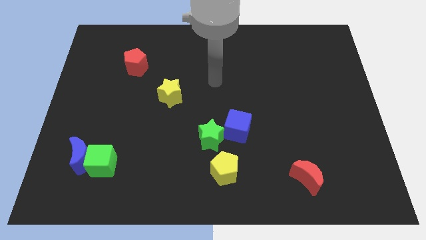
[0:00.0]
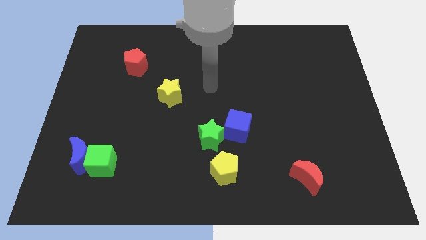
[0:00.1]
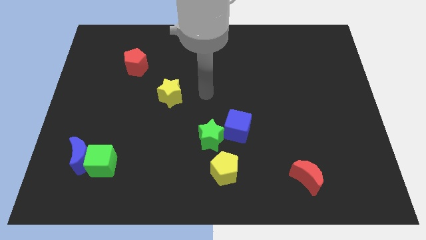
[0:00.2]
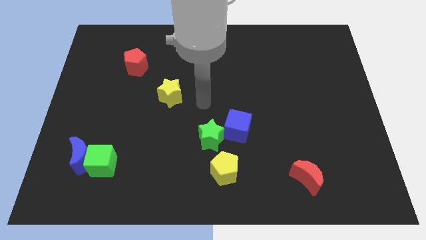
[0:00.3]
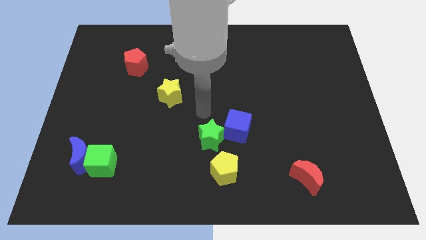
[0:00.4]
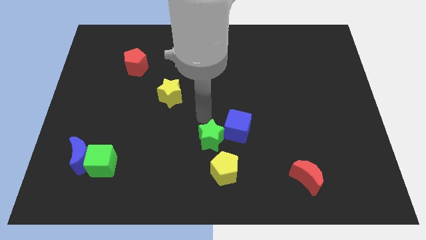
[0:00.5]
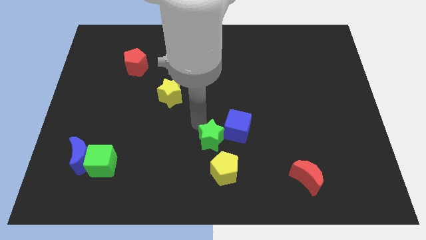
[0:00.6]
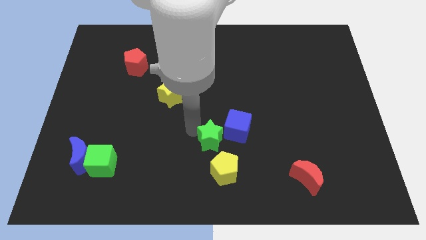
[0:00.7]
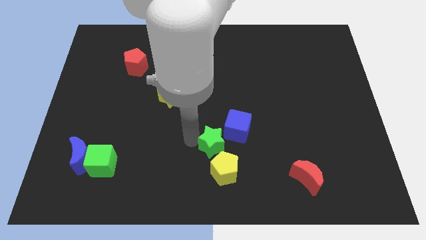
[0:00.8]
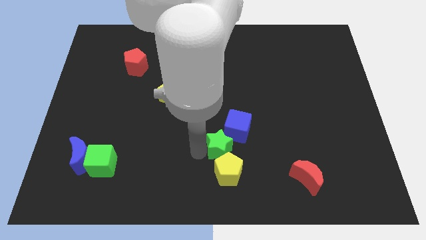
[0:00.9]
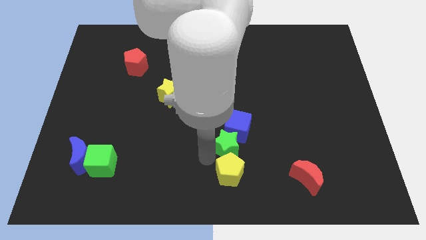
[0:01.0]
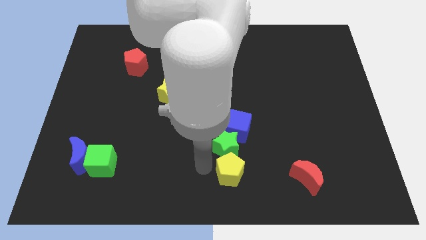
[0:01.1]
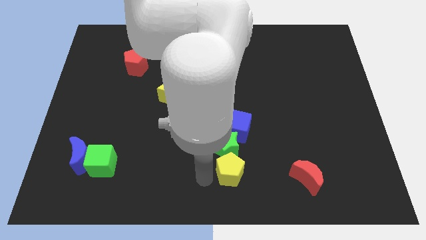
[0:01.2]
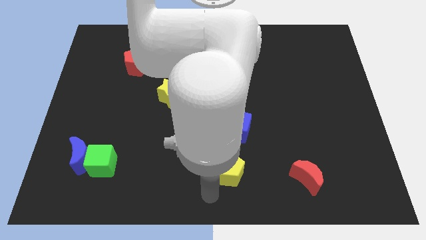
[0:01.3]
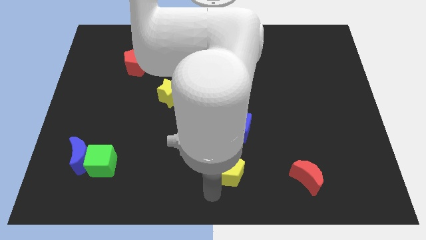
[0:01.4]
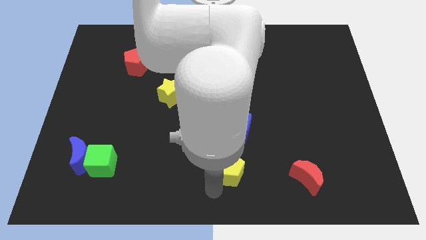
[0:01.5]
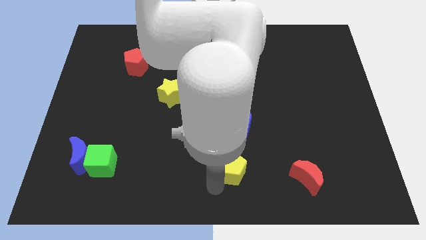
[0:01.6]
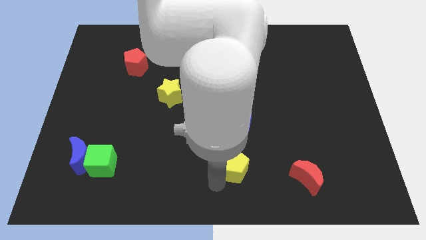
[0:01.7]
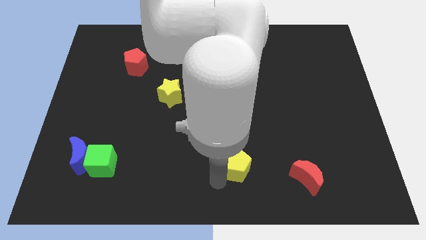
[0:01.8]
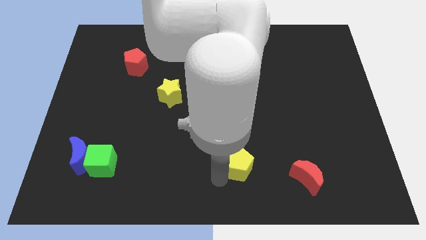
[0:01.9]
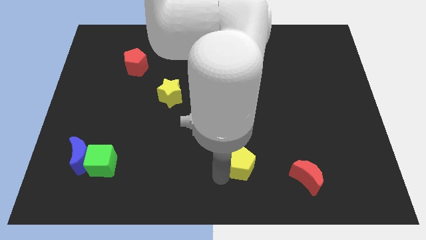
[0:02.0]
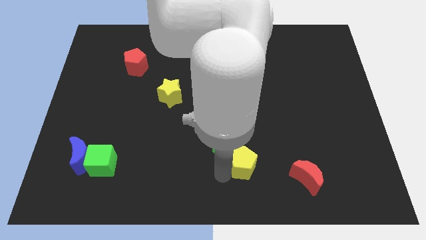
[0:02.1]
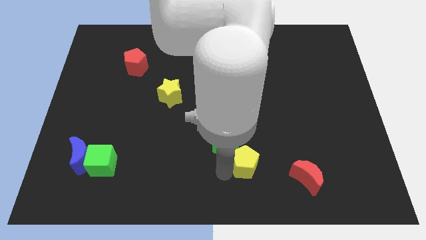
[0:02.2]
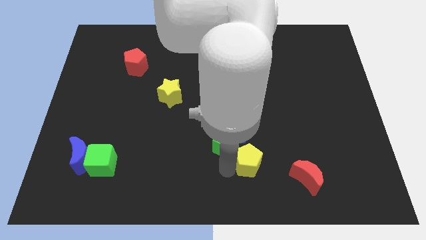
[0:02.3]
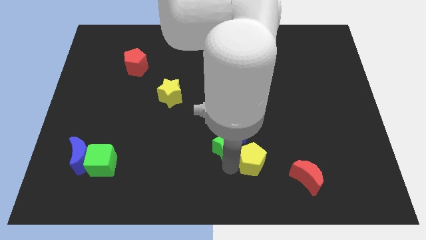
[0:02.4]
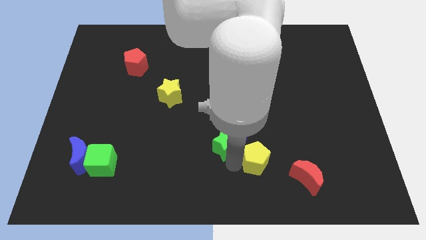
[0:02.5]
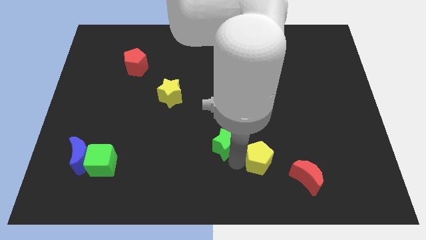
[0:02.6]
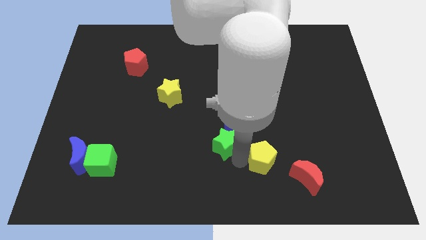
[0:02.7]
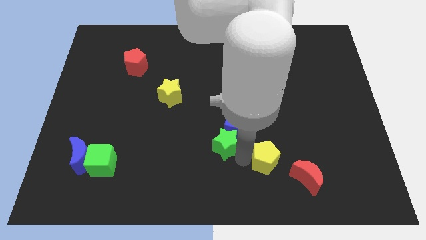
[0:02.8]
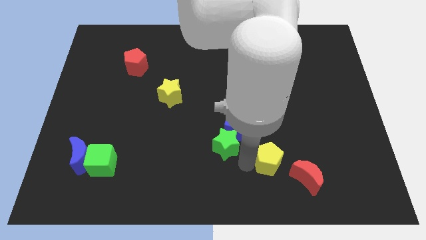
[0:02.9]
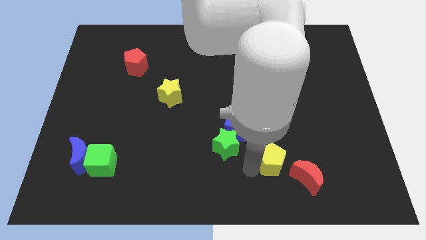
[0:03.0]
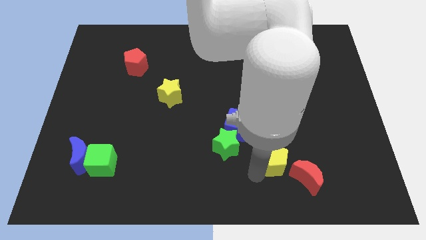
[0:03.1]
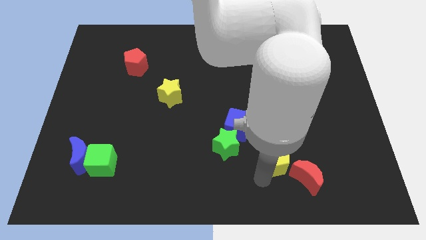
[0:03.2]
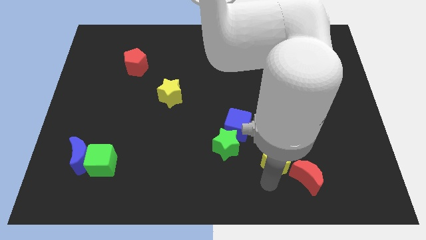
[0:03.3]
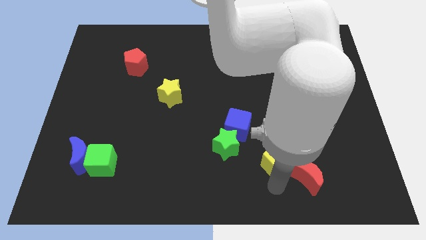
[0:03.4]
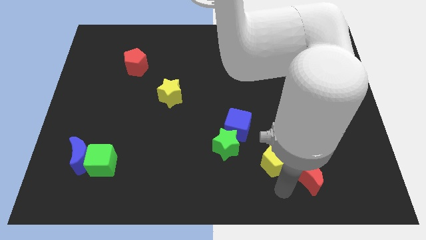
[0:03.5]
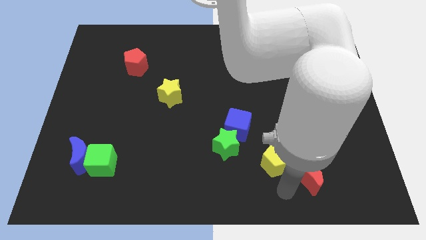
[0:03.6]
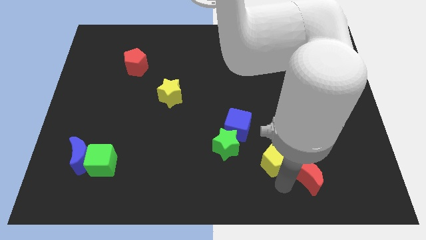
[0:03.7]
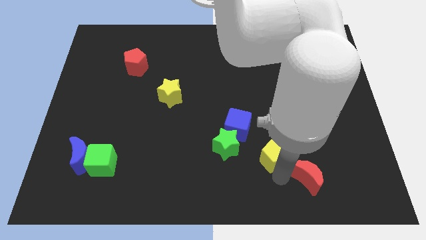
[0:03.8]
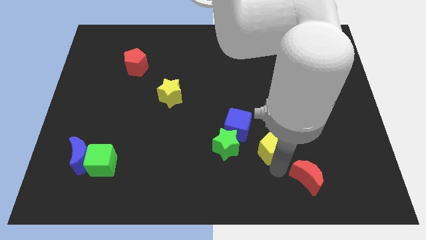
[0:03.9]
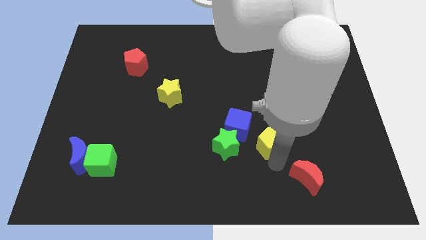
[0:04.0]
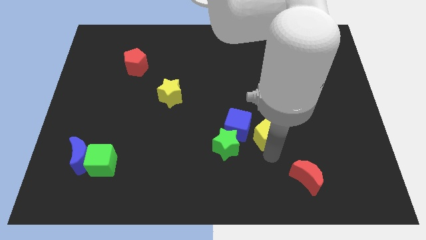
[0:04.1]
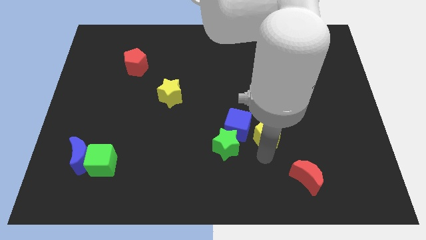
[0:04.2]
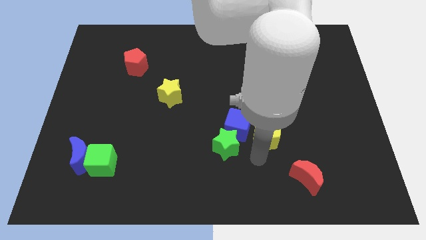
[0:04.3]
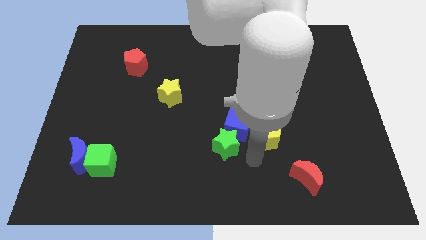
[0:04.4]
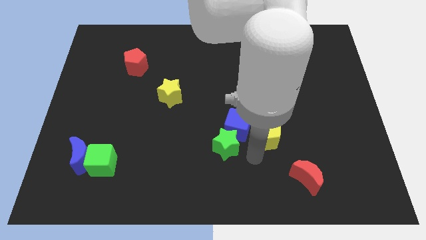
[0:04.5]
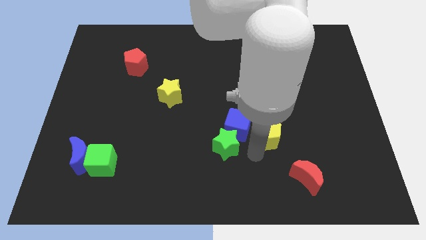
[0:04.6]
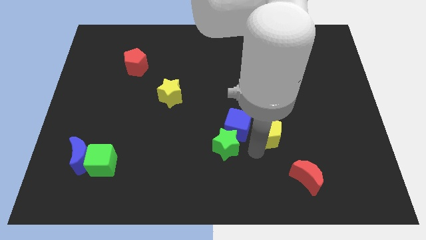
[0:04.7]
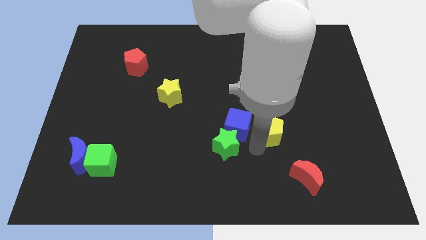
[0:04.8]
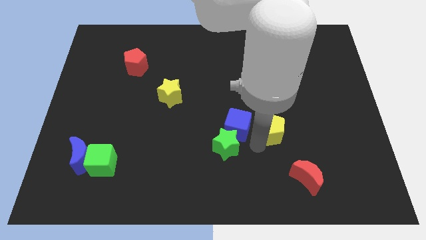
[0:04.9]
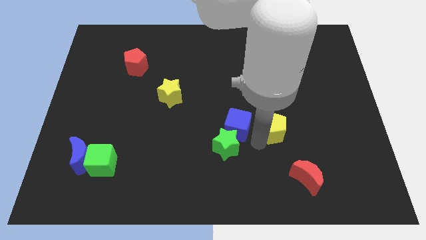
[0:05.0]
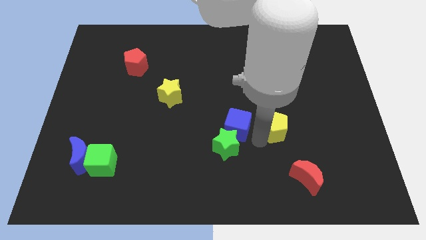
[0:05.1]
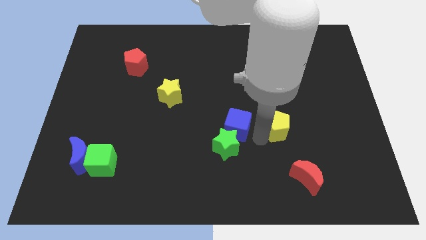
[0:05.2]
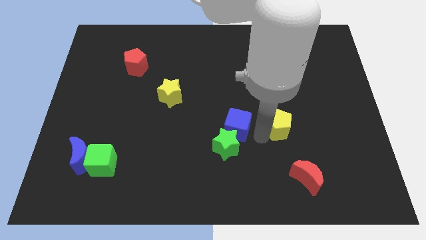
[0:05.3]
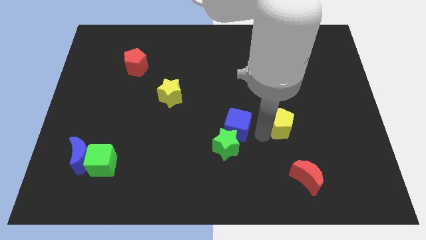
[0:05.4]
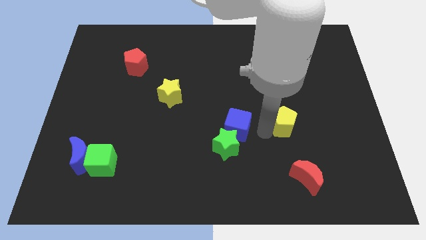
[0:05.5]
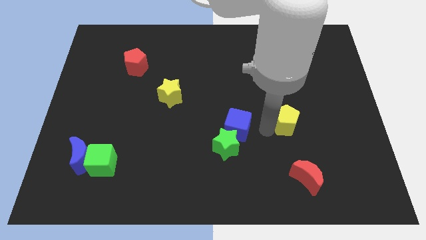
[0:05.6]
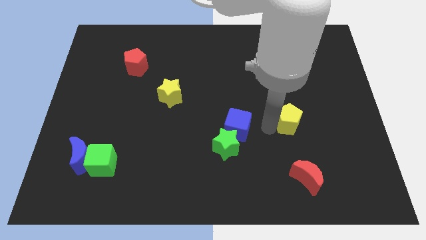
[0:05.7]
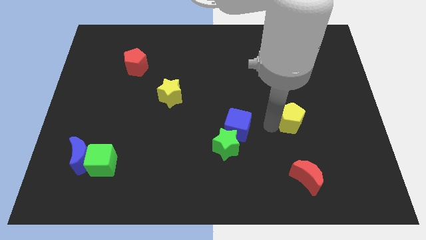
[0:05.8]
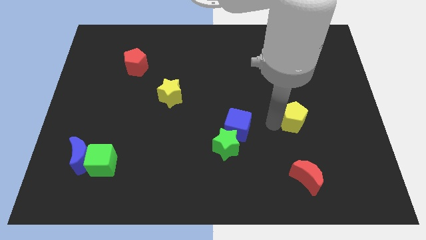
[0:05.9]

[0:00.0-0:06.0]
move the yellow pentagon up and to the right diagonally

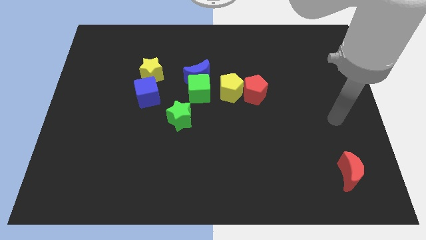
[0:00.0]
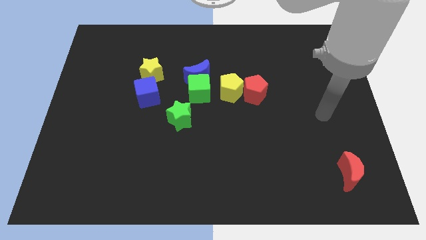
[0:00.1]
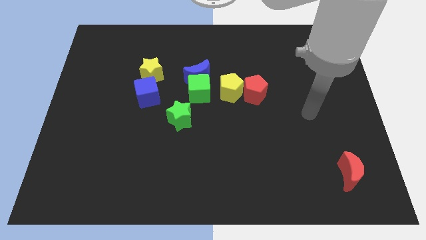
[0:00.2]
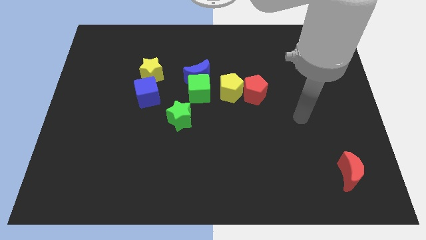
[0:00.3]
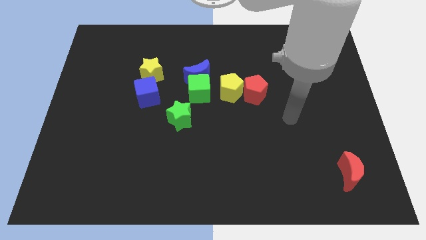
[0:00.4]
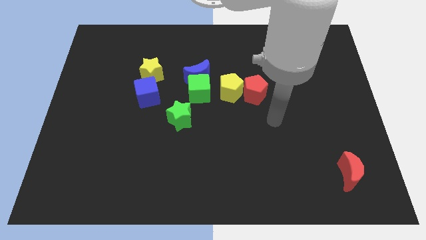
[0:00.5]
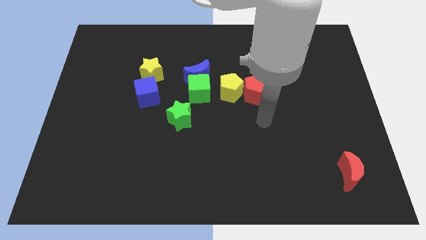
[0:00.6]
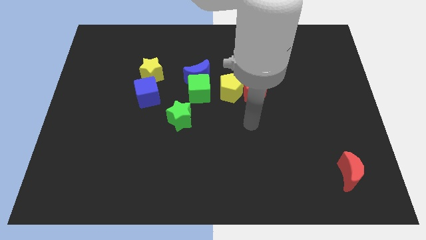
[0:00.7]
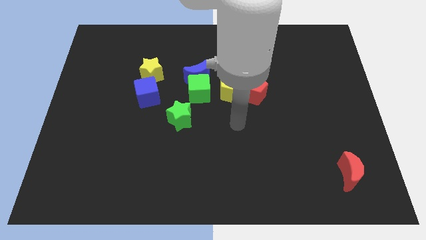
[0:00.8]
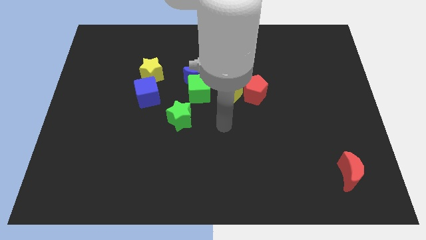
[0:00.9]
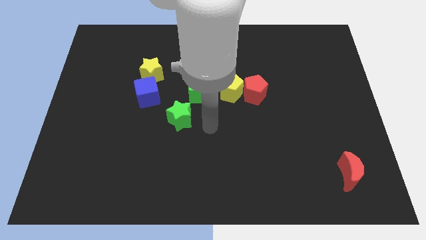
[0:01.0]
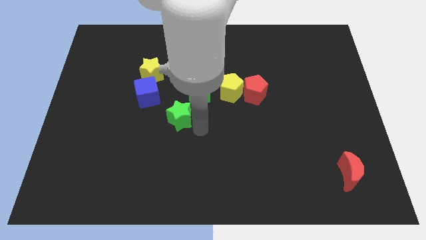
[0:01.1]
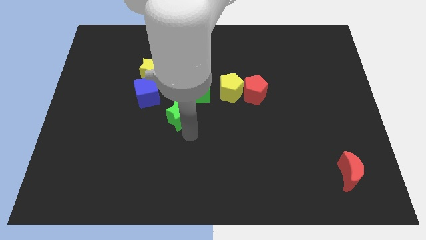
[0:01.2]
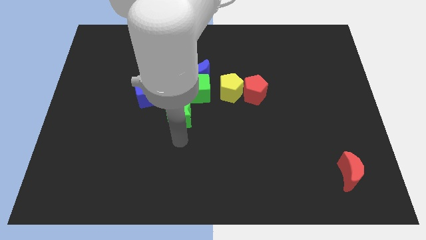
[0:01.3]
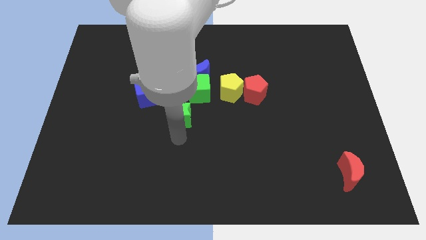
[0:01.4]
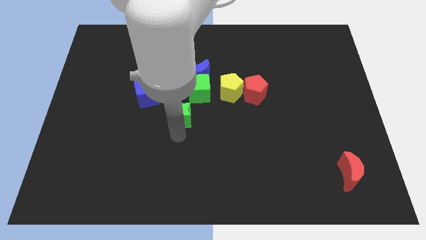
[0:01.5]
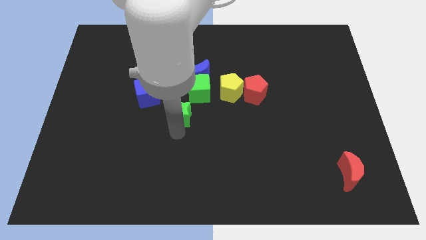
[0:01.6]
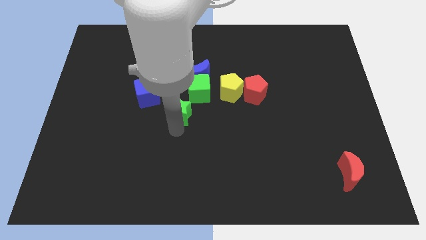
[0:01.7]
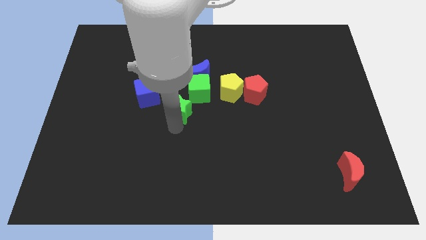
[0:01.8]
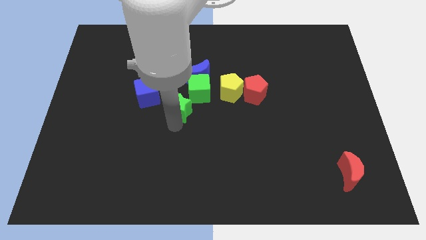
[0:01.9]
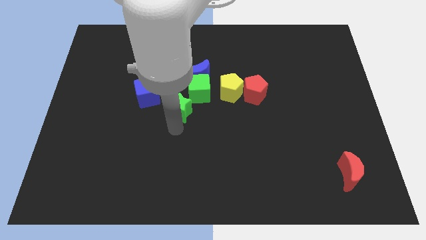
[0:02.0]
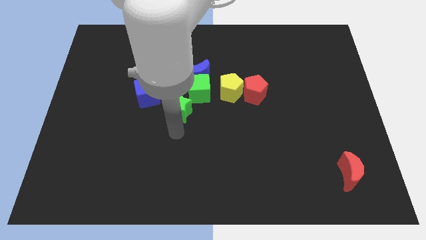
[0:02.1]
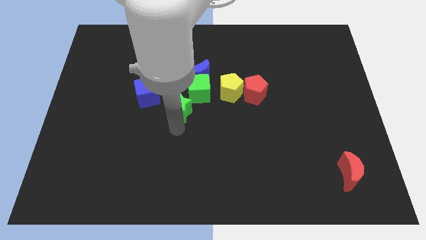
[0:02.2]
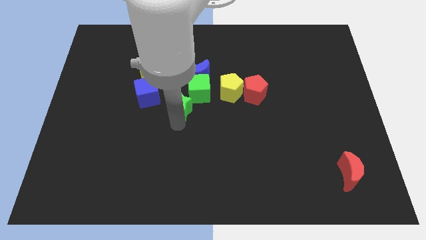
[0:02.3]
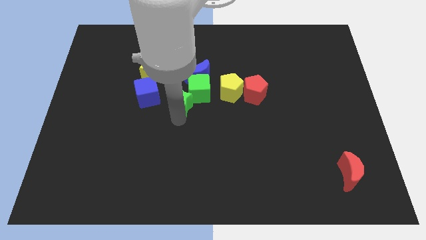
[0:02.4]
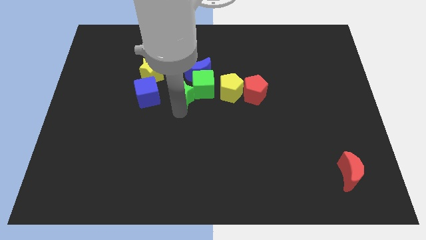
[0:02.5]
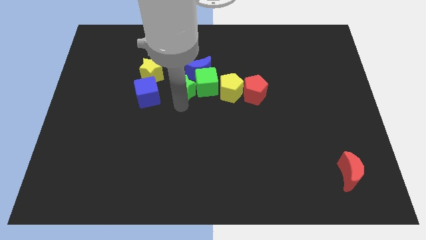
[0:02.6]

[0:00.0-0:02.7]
move the green star up a little bit
